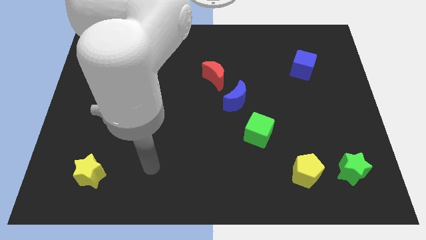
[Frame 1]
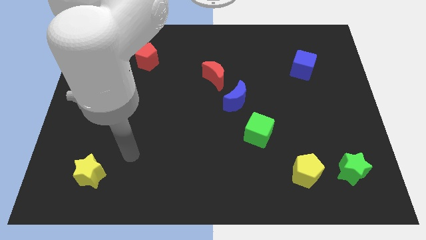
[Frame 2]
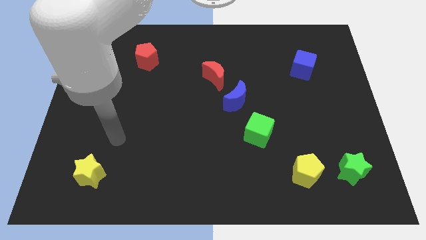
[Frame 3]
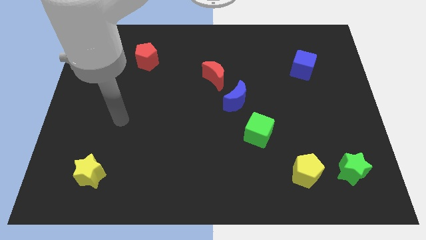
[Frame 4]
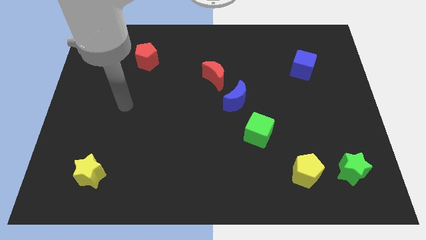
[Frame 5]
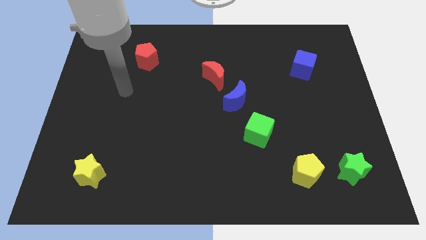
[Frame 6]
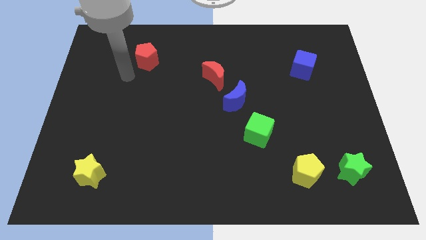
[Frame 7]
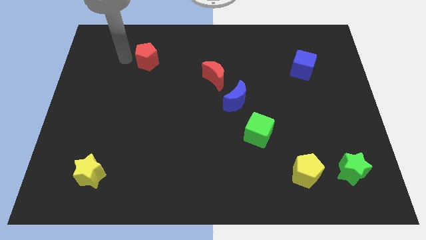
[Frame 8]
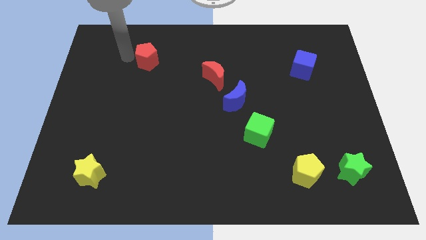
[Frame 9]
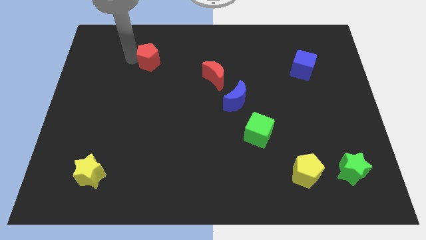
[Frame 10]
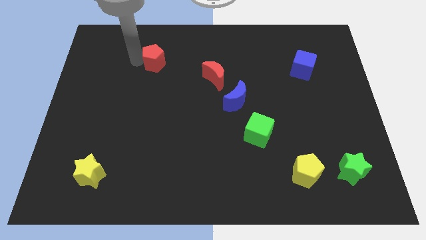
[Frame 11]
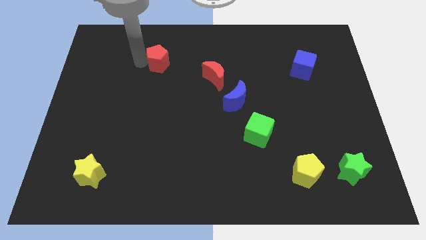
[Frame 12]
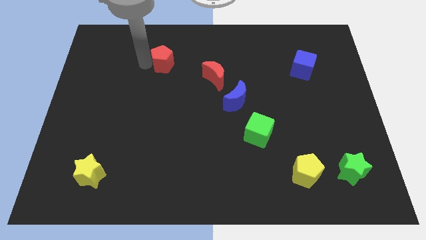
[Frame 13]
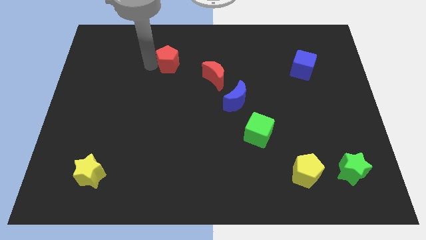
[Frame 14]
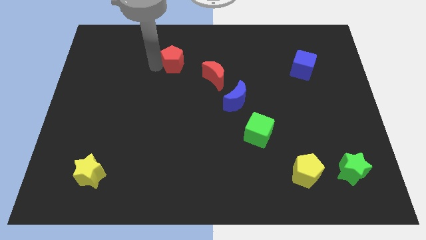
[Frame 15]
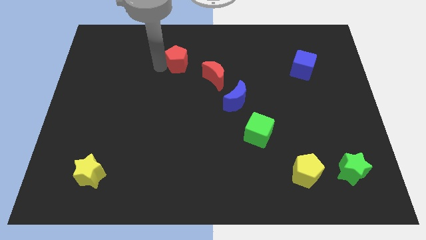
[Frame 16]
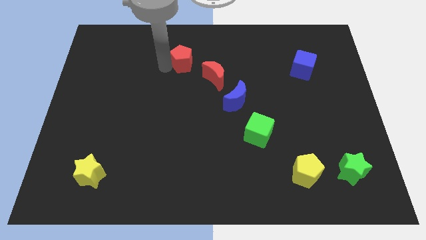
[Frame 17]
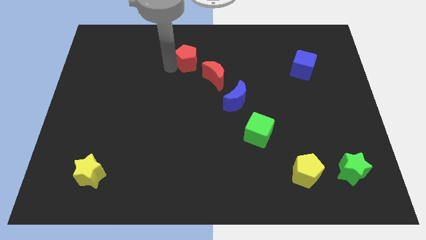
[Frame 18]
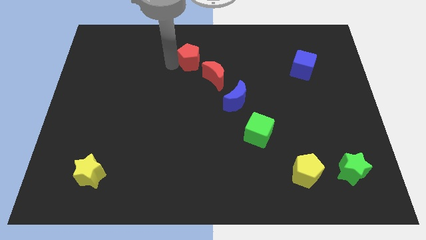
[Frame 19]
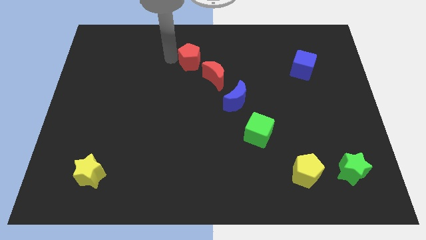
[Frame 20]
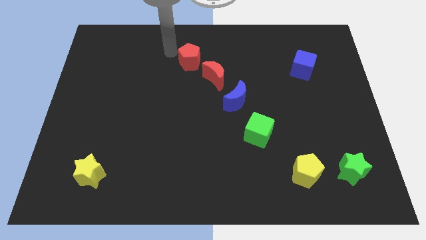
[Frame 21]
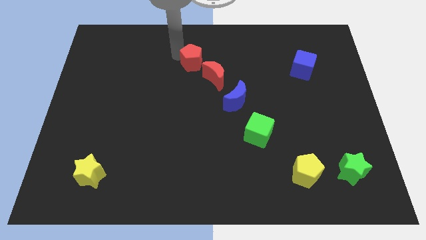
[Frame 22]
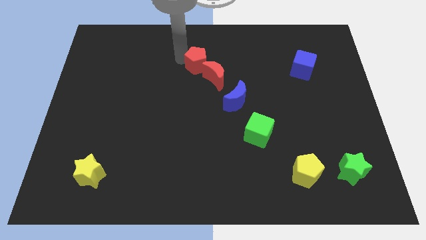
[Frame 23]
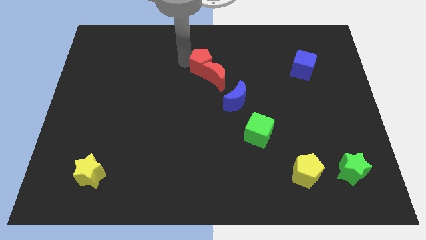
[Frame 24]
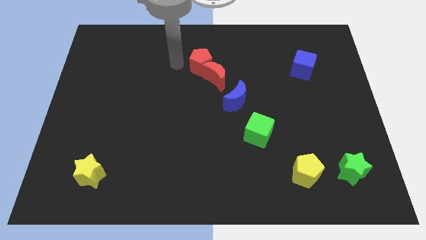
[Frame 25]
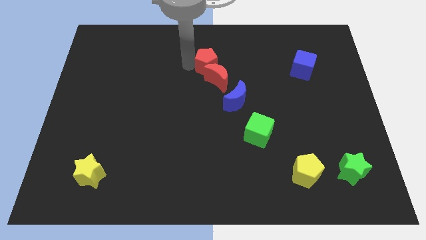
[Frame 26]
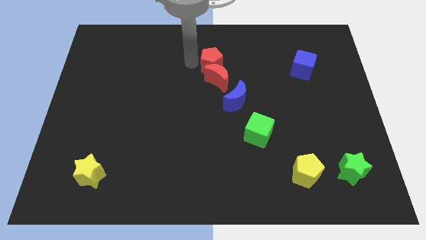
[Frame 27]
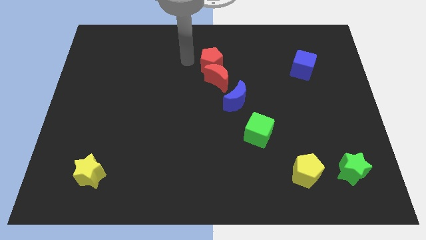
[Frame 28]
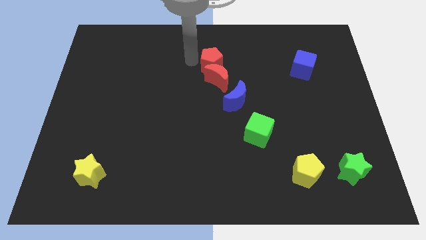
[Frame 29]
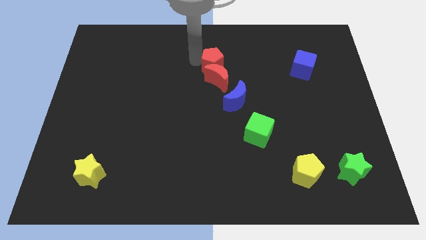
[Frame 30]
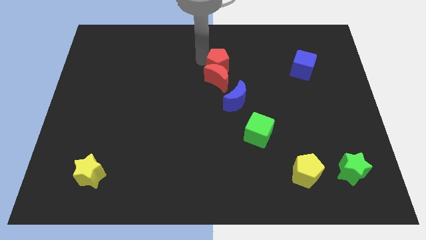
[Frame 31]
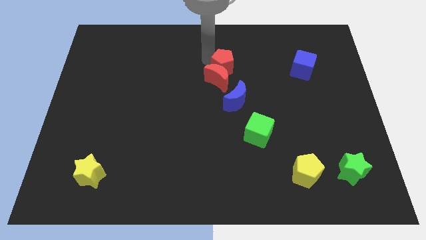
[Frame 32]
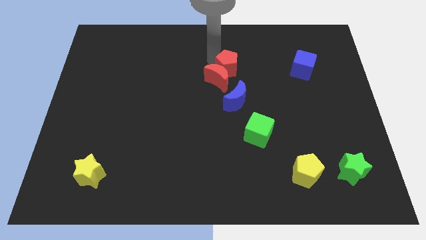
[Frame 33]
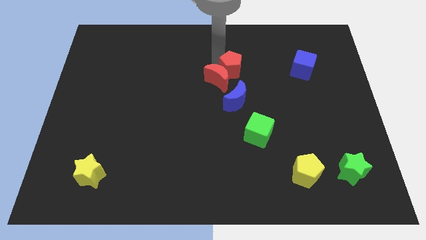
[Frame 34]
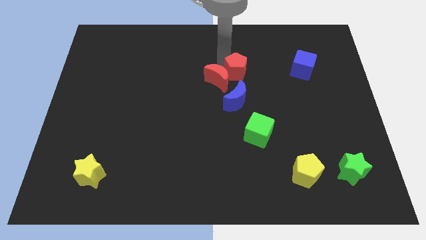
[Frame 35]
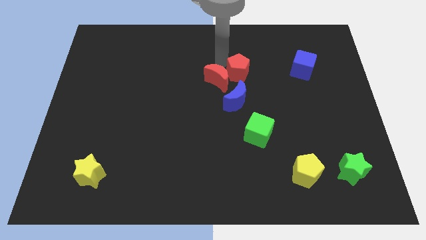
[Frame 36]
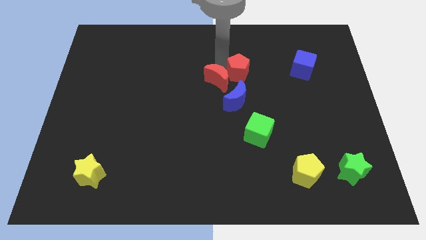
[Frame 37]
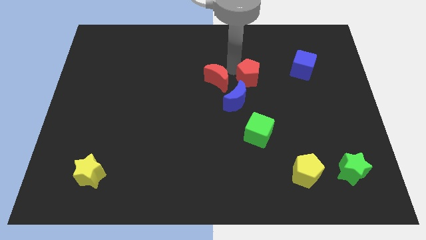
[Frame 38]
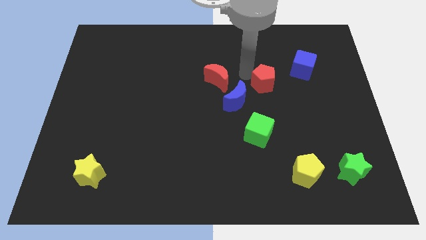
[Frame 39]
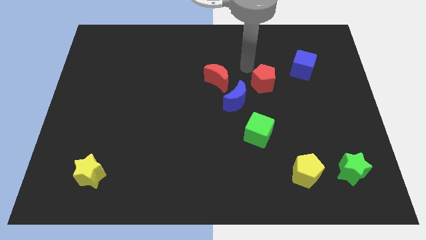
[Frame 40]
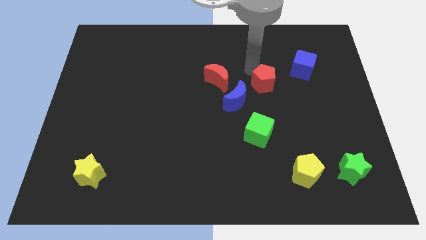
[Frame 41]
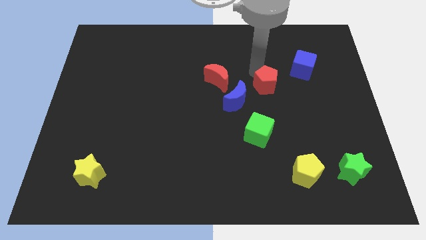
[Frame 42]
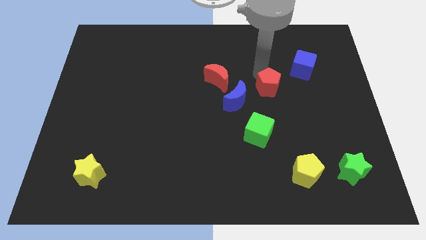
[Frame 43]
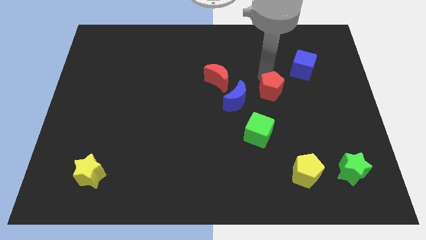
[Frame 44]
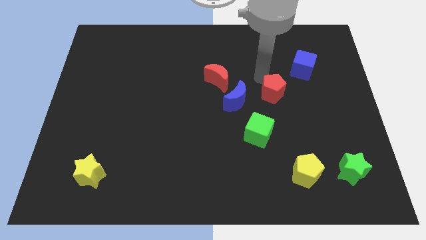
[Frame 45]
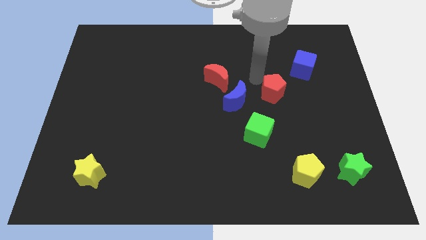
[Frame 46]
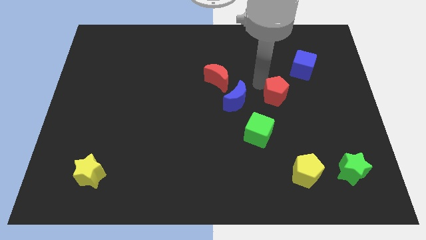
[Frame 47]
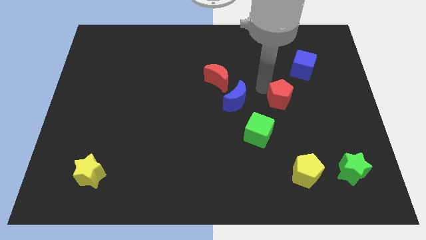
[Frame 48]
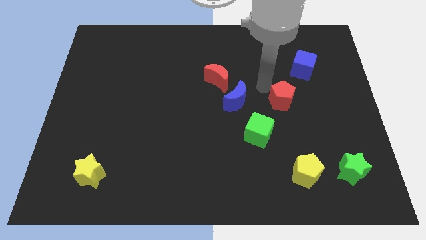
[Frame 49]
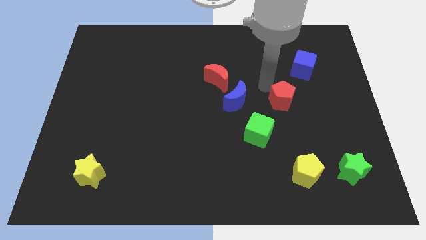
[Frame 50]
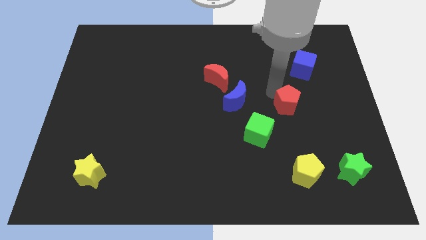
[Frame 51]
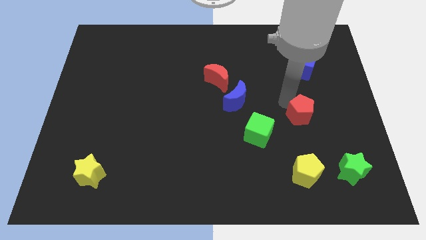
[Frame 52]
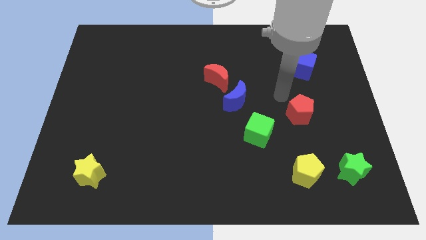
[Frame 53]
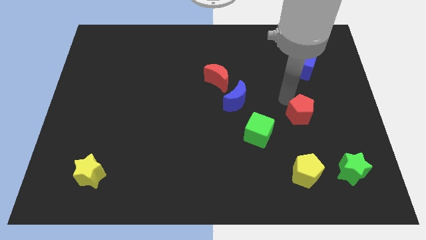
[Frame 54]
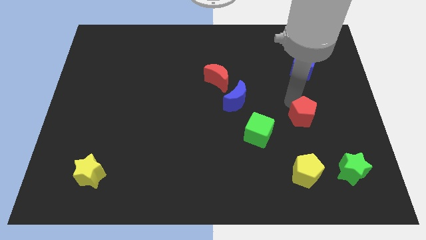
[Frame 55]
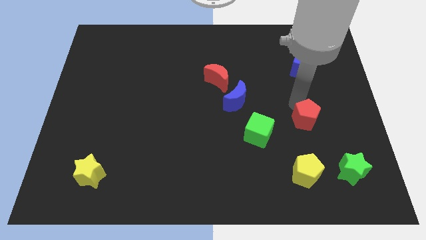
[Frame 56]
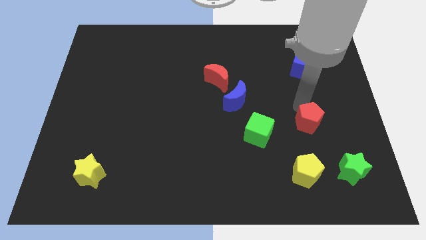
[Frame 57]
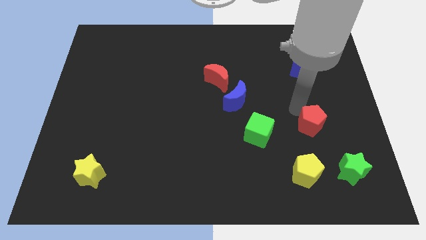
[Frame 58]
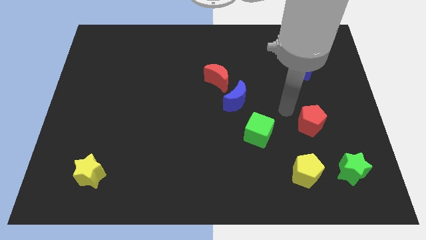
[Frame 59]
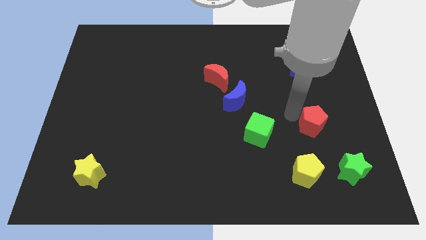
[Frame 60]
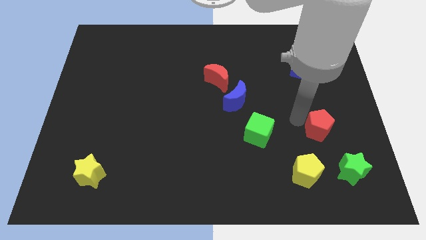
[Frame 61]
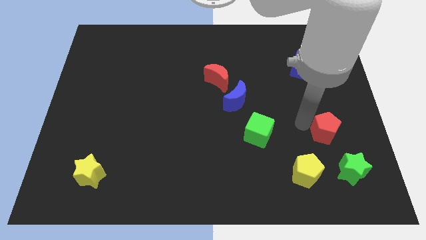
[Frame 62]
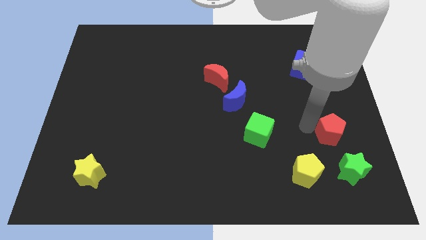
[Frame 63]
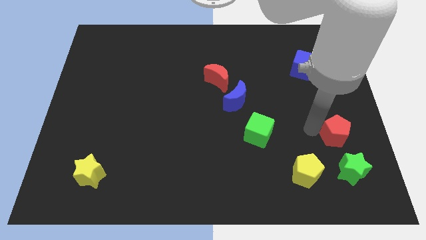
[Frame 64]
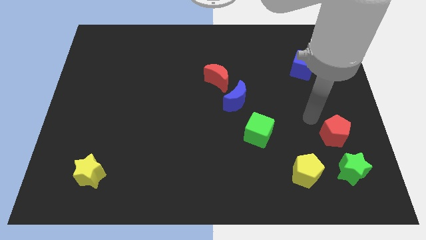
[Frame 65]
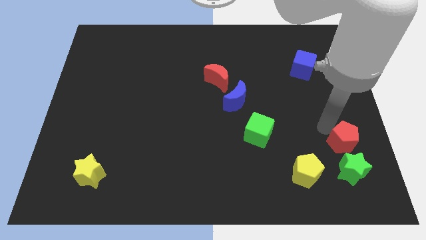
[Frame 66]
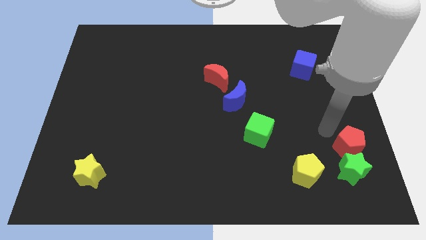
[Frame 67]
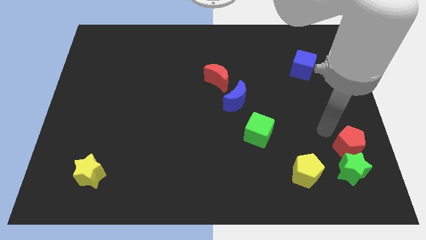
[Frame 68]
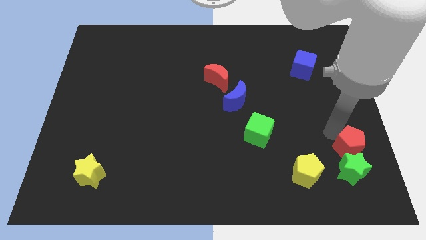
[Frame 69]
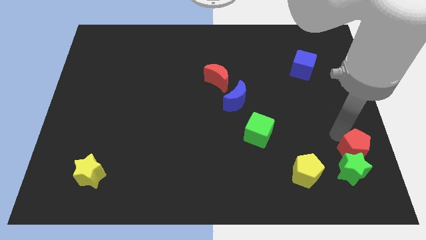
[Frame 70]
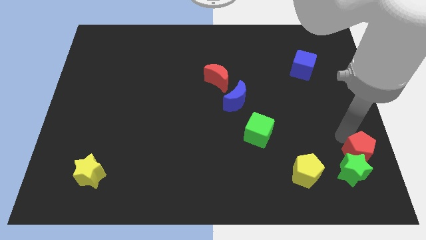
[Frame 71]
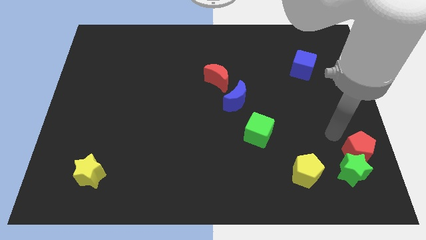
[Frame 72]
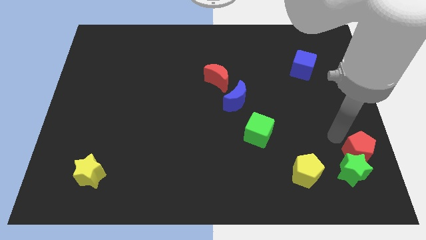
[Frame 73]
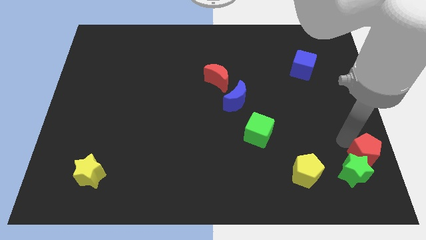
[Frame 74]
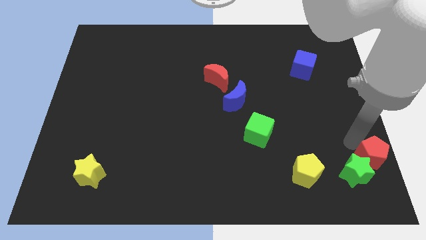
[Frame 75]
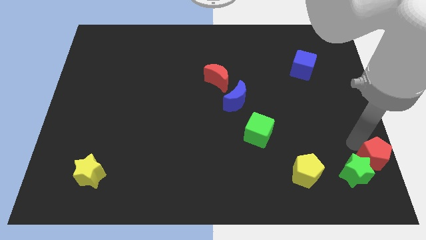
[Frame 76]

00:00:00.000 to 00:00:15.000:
move the red pentagon to the lower right corner
